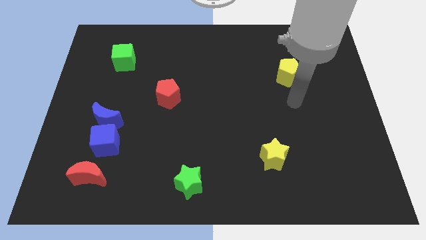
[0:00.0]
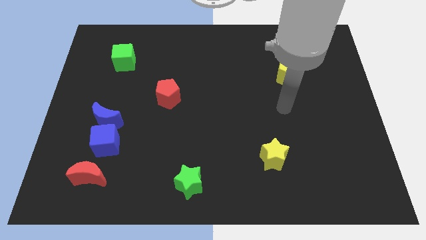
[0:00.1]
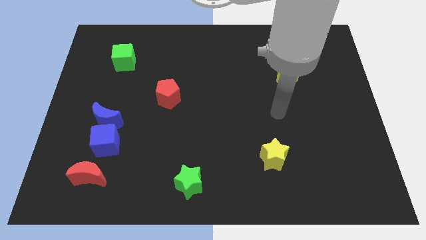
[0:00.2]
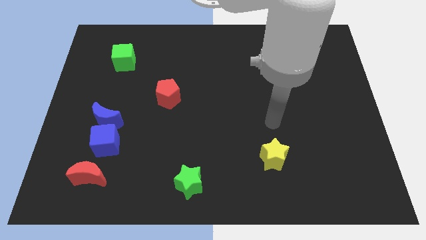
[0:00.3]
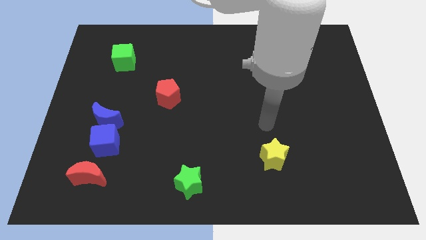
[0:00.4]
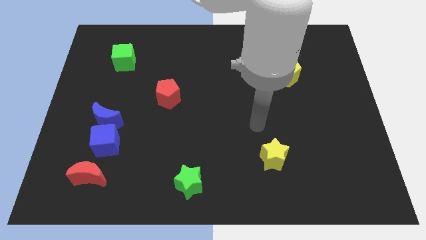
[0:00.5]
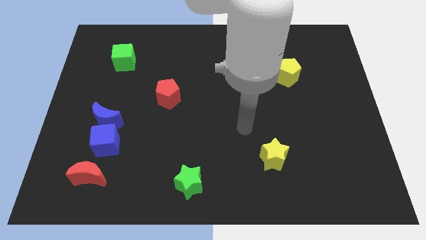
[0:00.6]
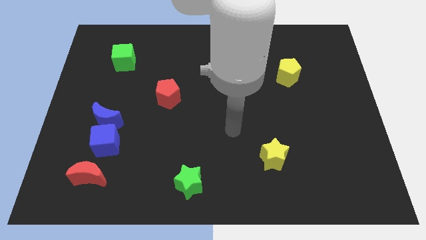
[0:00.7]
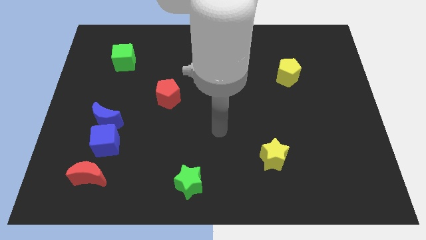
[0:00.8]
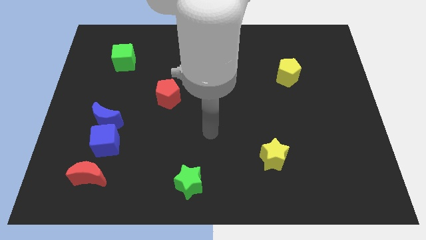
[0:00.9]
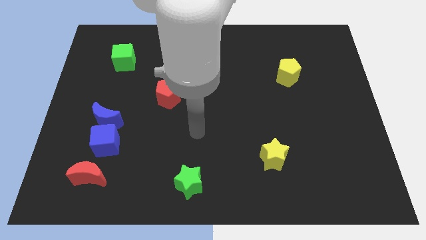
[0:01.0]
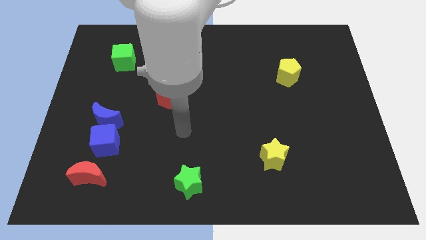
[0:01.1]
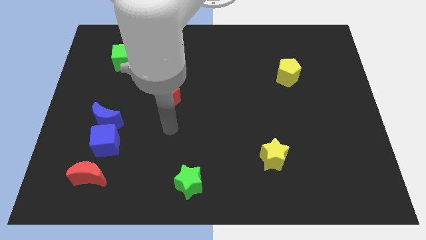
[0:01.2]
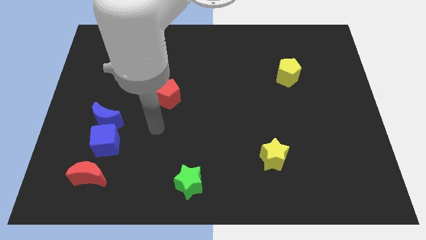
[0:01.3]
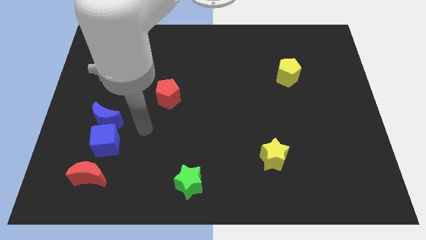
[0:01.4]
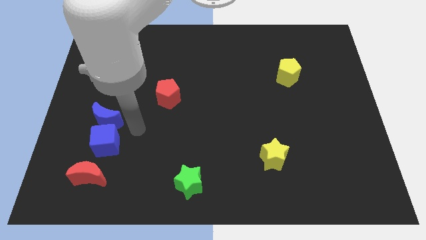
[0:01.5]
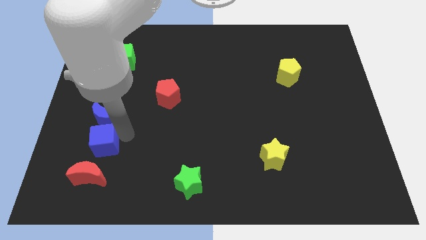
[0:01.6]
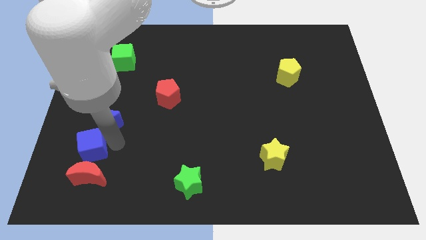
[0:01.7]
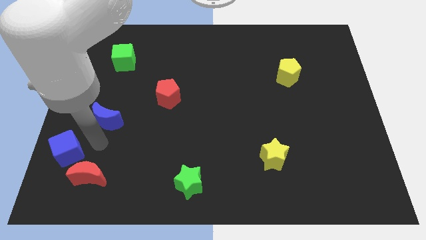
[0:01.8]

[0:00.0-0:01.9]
pull the blue moon apart from the blue cube

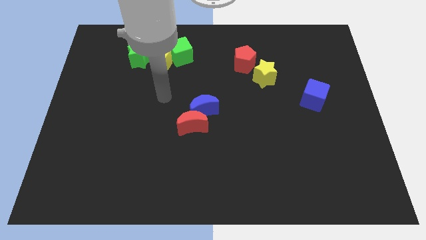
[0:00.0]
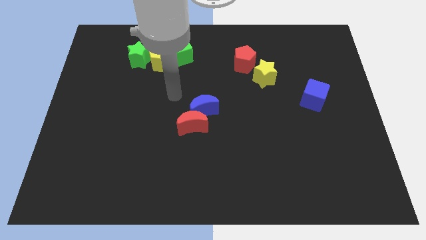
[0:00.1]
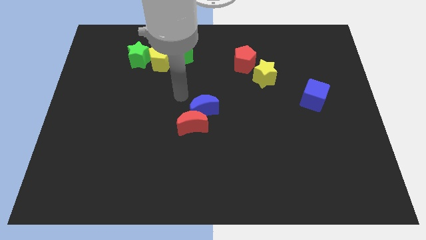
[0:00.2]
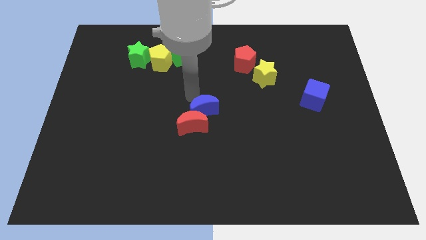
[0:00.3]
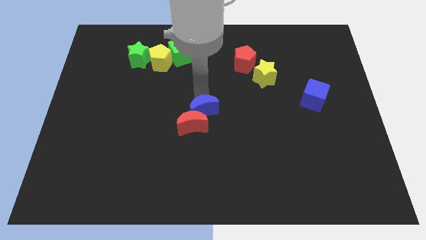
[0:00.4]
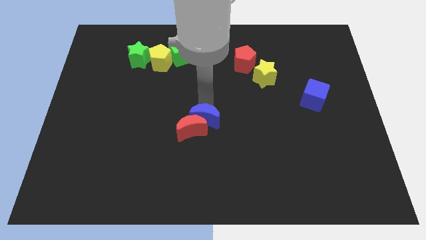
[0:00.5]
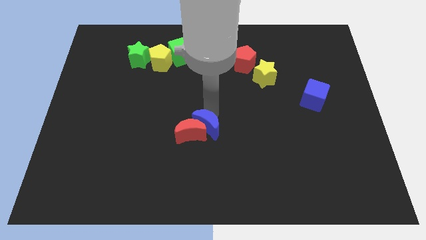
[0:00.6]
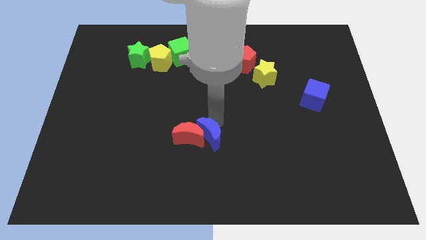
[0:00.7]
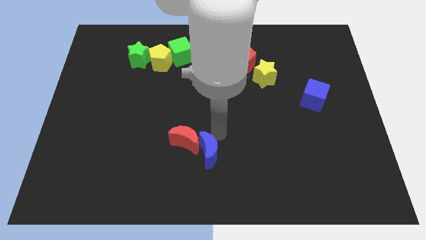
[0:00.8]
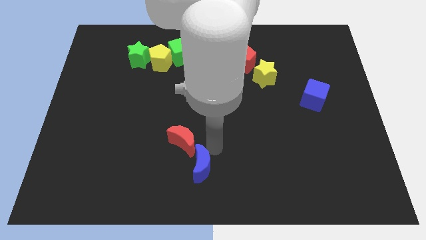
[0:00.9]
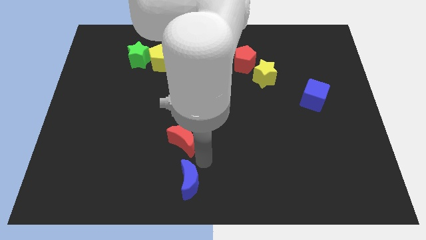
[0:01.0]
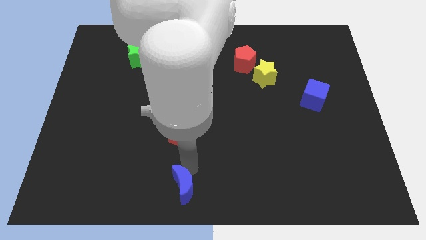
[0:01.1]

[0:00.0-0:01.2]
move the red moon away from the blue moon

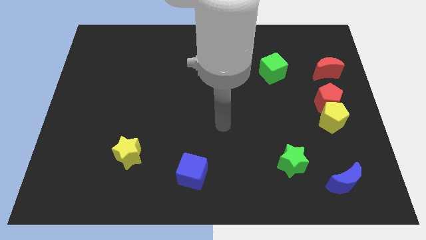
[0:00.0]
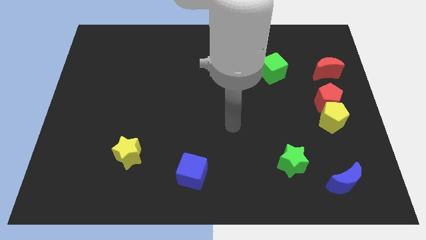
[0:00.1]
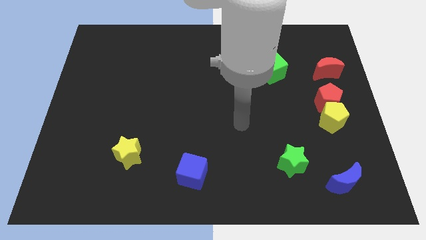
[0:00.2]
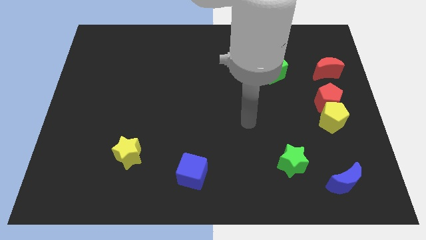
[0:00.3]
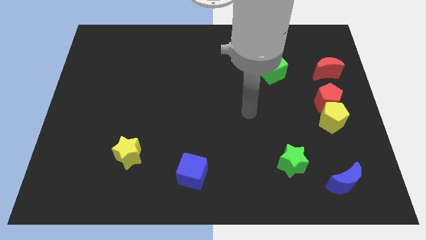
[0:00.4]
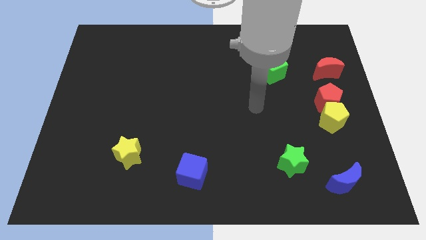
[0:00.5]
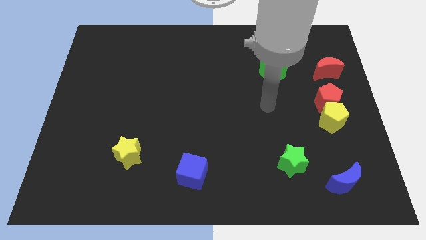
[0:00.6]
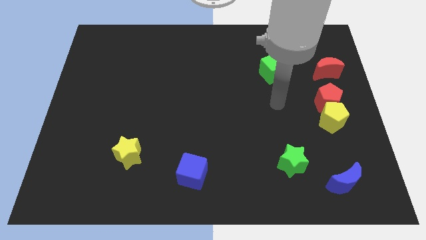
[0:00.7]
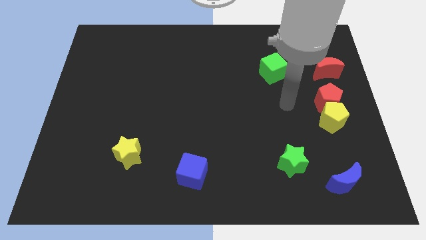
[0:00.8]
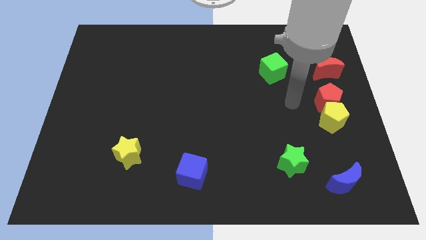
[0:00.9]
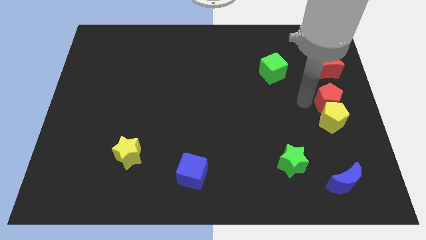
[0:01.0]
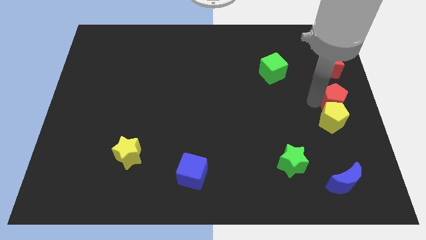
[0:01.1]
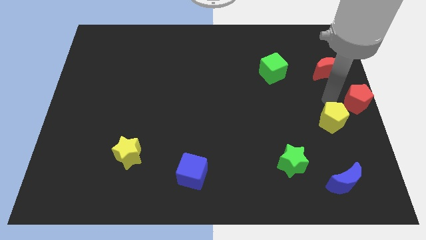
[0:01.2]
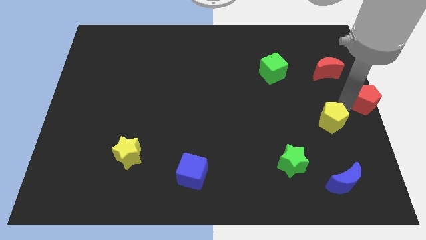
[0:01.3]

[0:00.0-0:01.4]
pull the yellow pentagon apart from the red pentagon

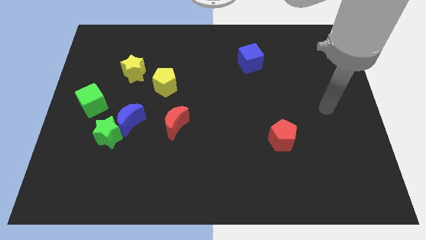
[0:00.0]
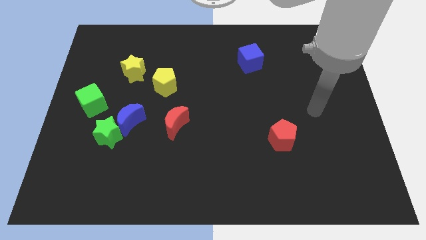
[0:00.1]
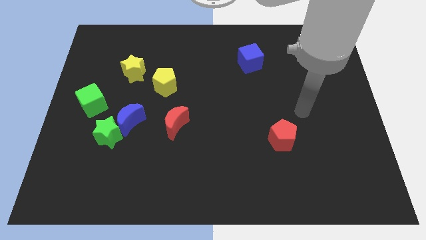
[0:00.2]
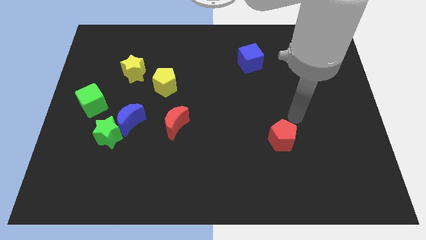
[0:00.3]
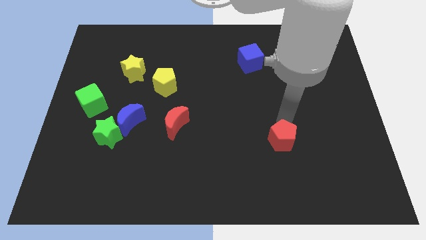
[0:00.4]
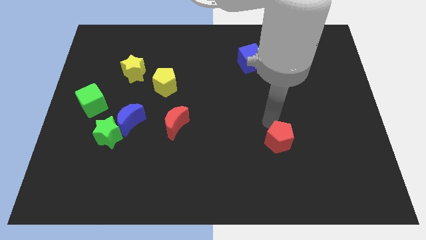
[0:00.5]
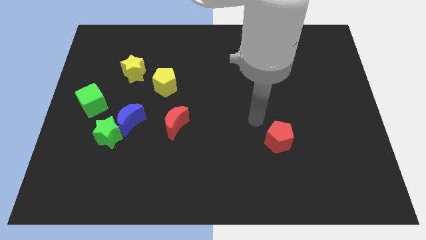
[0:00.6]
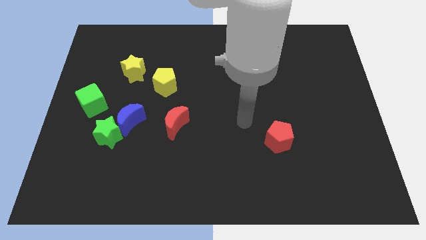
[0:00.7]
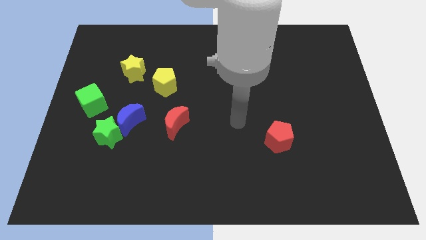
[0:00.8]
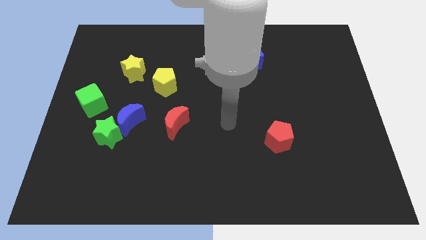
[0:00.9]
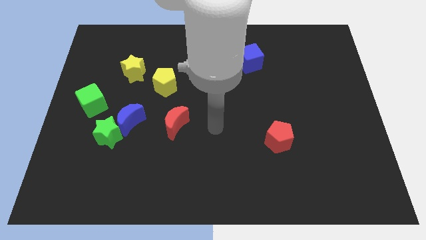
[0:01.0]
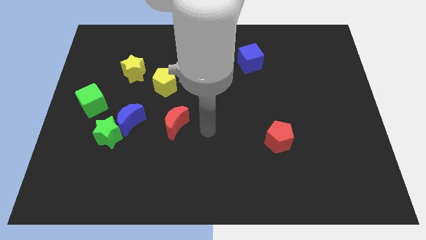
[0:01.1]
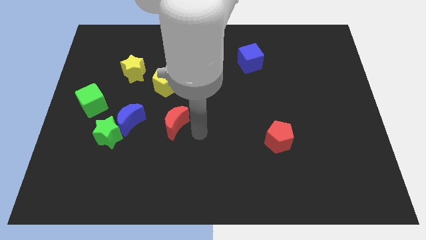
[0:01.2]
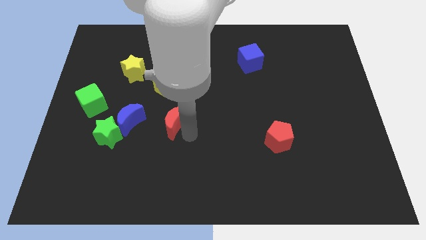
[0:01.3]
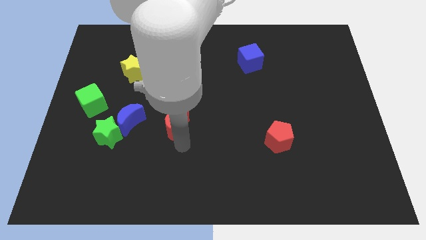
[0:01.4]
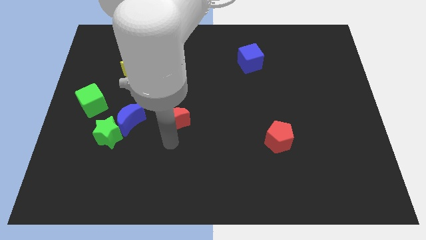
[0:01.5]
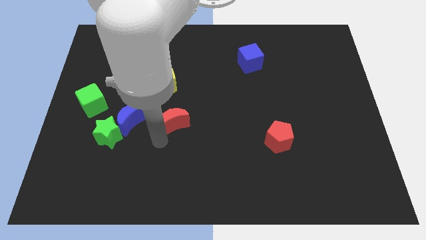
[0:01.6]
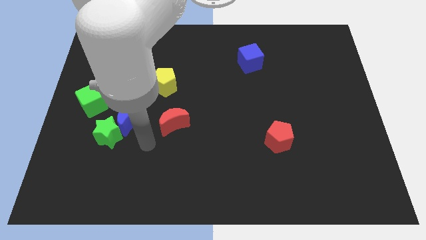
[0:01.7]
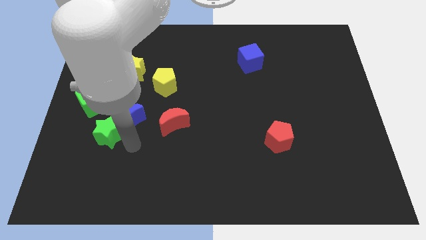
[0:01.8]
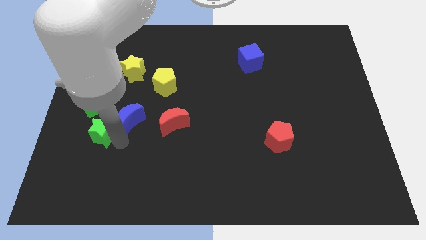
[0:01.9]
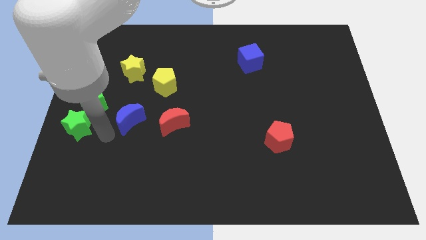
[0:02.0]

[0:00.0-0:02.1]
move the blue moon away from the green star

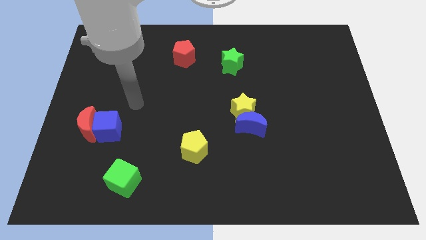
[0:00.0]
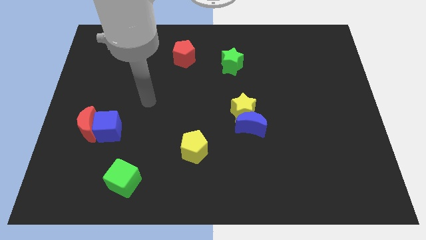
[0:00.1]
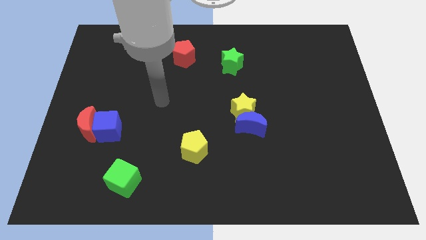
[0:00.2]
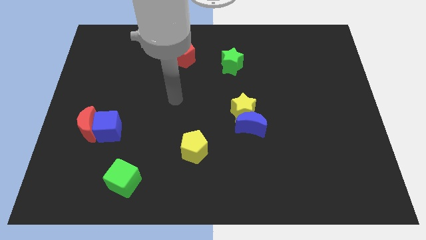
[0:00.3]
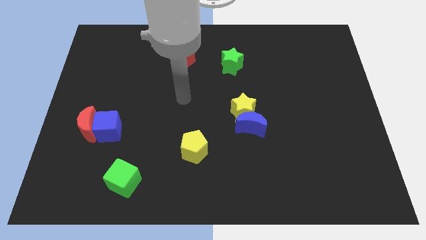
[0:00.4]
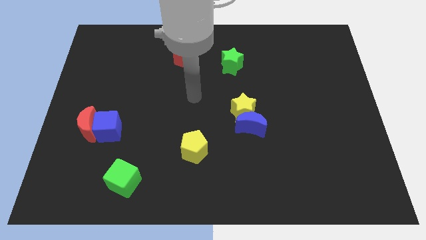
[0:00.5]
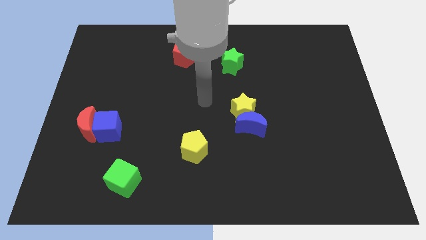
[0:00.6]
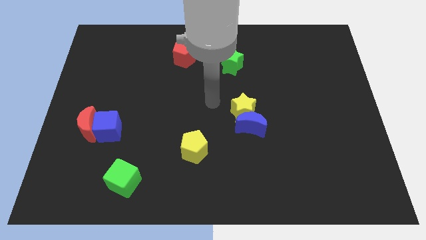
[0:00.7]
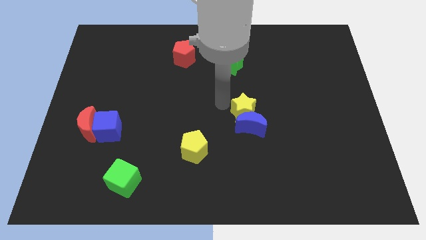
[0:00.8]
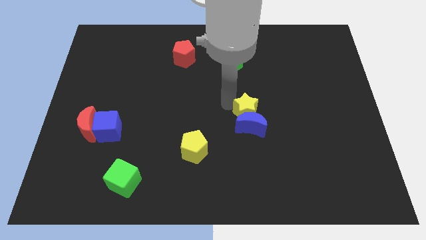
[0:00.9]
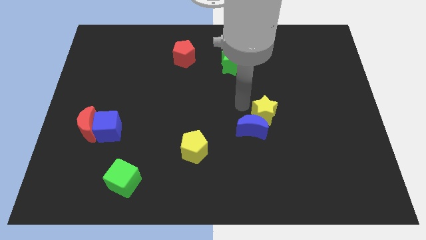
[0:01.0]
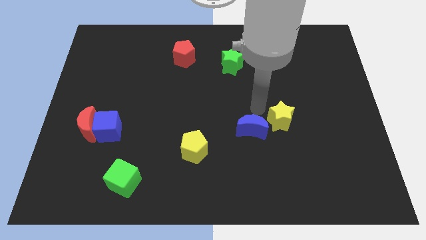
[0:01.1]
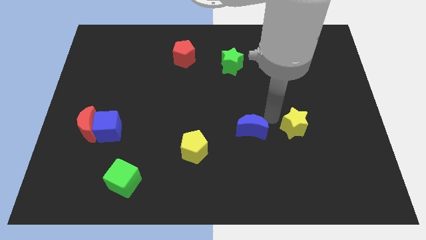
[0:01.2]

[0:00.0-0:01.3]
move the blue moon away from the yellow star

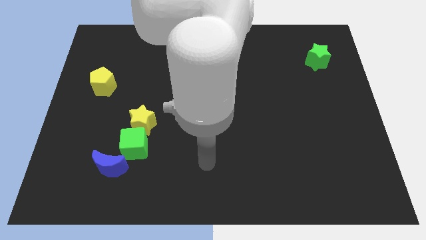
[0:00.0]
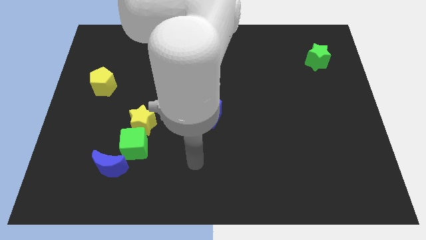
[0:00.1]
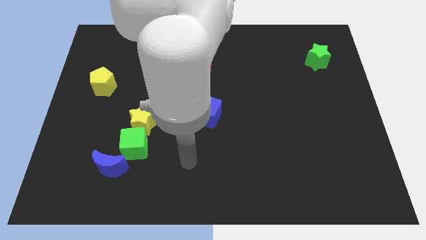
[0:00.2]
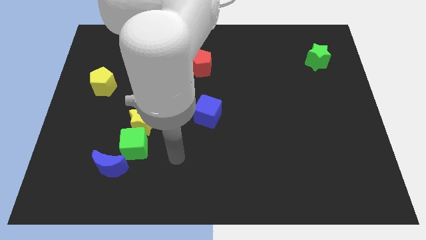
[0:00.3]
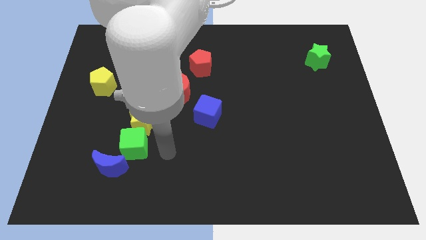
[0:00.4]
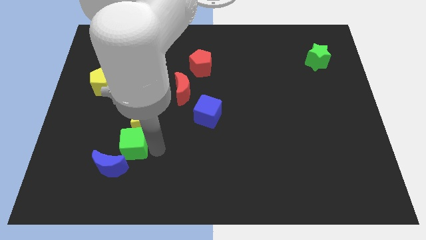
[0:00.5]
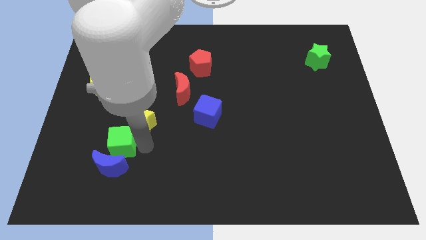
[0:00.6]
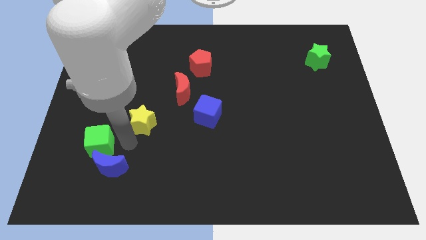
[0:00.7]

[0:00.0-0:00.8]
separate the yellow star from the green cube

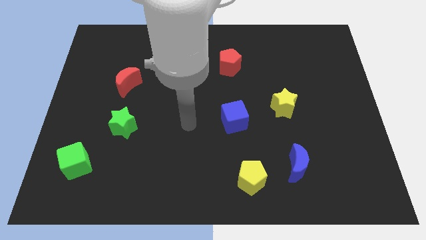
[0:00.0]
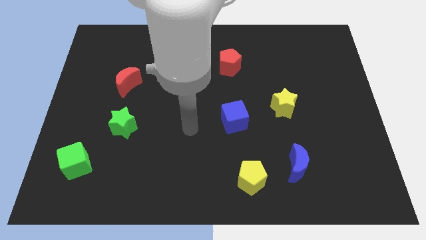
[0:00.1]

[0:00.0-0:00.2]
pull the blue moon apart from the yellow pentagon

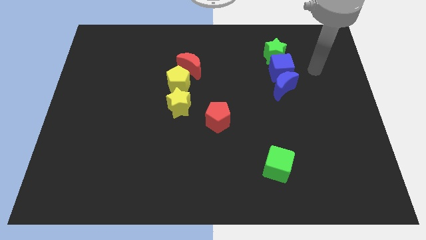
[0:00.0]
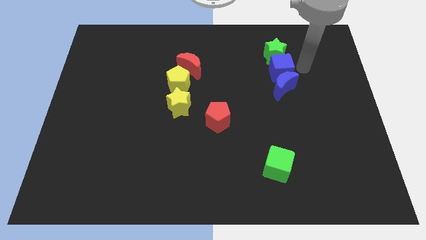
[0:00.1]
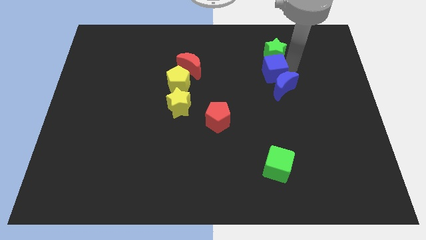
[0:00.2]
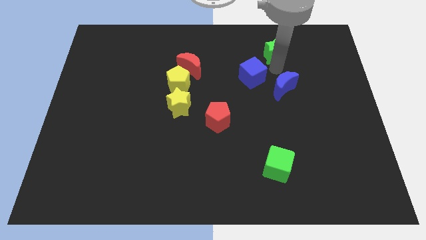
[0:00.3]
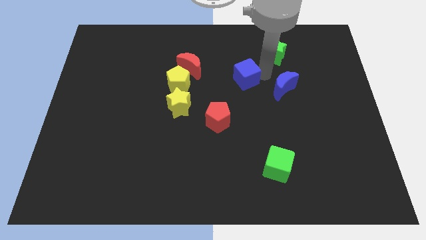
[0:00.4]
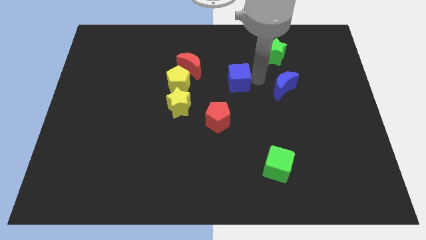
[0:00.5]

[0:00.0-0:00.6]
move the blue moon away from the blue cube
